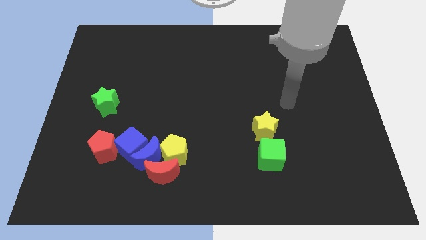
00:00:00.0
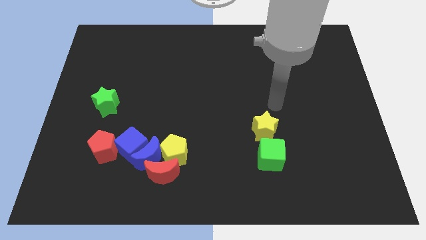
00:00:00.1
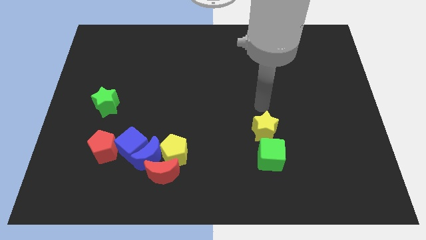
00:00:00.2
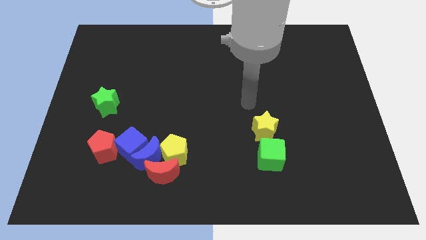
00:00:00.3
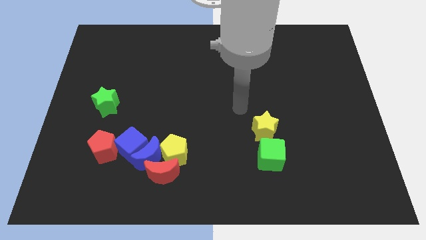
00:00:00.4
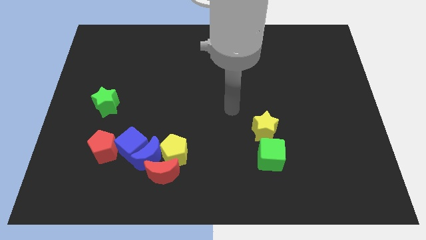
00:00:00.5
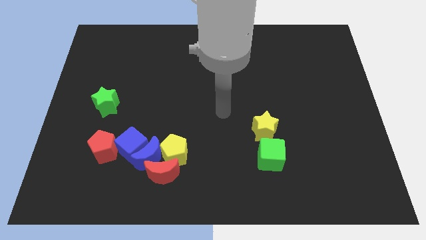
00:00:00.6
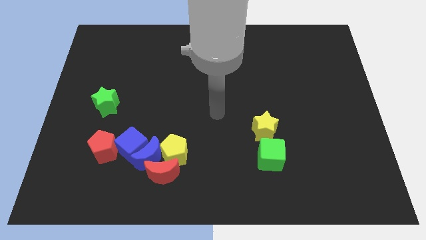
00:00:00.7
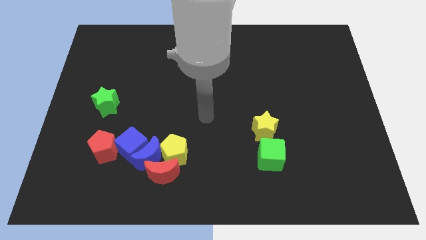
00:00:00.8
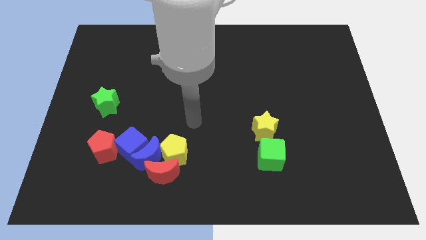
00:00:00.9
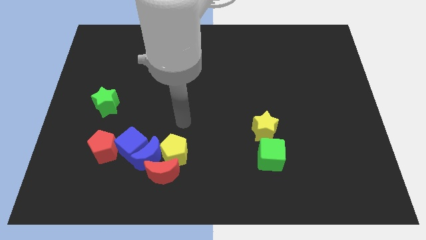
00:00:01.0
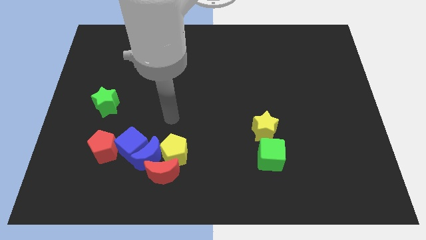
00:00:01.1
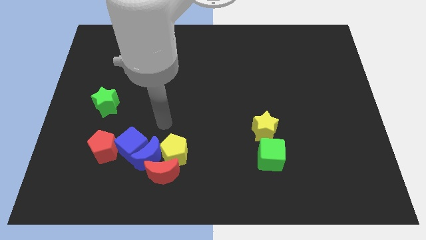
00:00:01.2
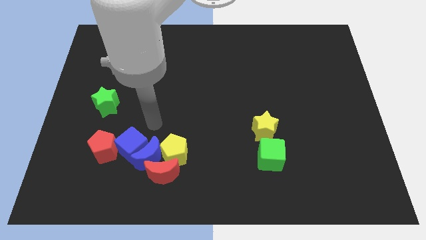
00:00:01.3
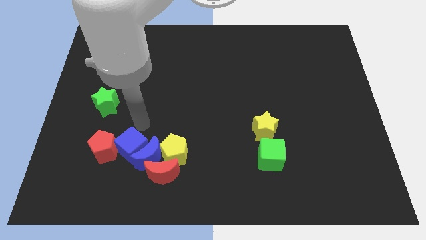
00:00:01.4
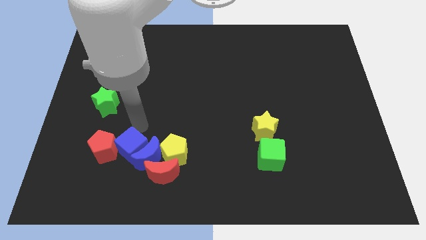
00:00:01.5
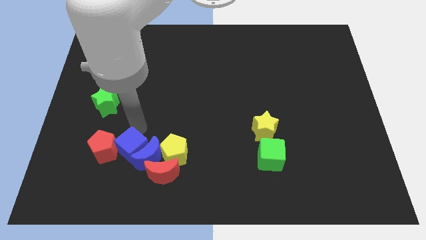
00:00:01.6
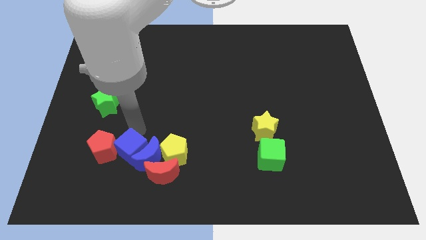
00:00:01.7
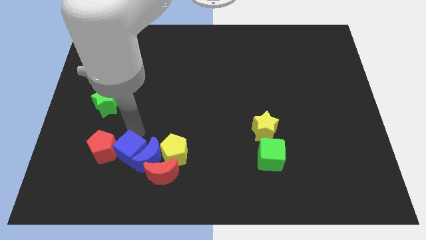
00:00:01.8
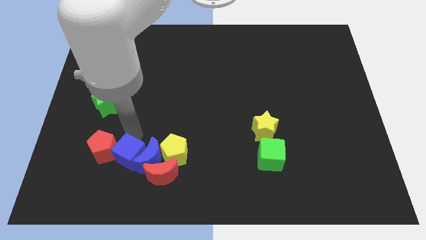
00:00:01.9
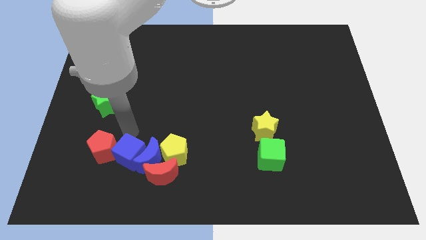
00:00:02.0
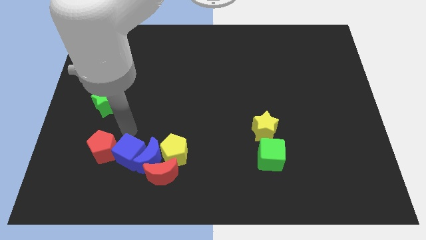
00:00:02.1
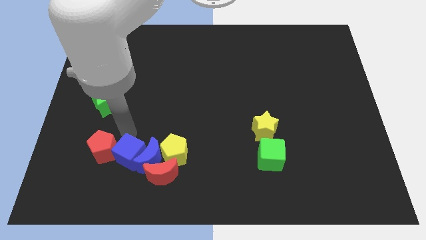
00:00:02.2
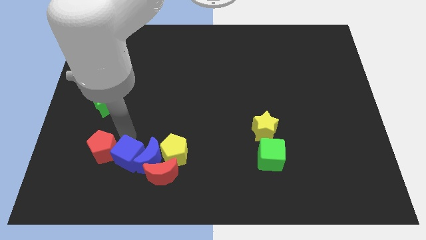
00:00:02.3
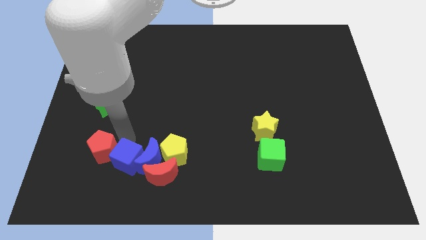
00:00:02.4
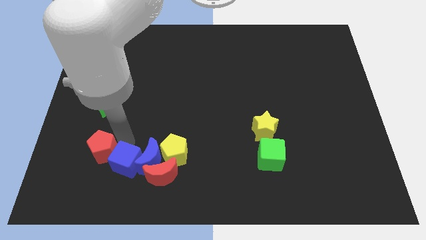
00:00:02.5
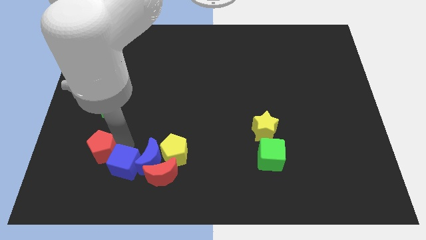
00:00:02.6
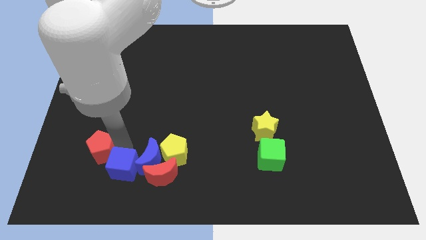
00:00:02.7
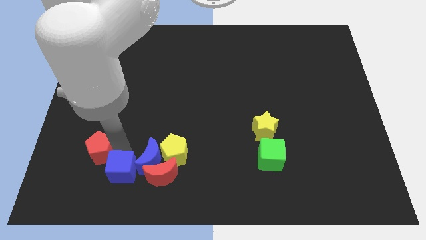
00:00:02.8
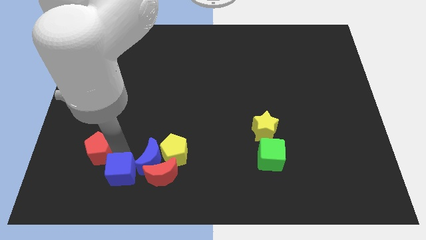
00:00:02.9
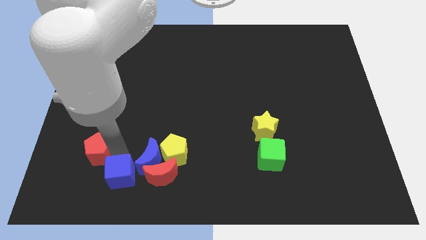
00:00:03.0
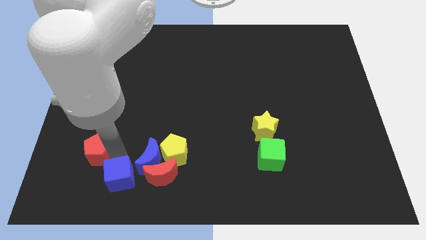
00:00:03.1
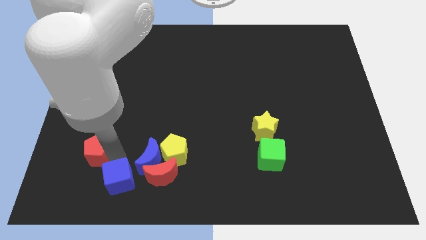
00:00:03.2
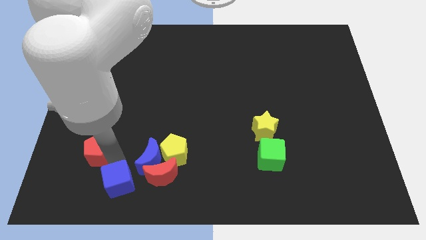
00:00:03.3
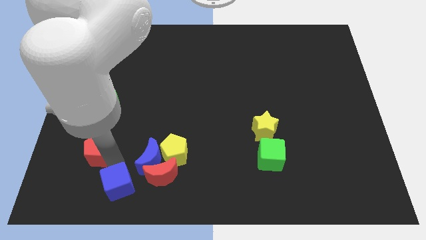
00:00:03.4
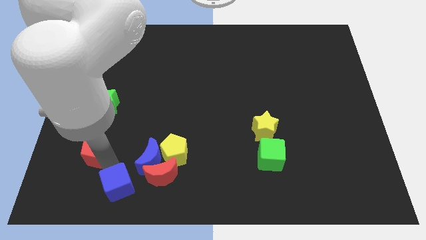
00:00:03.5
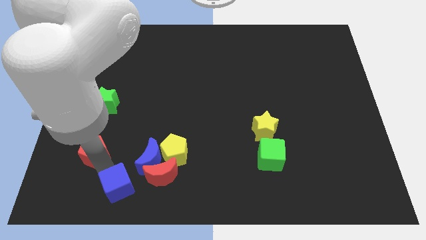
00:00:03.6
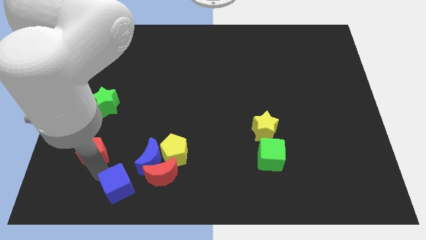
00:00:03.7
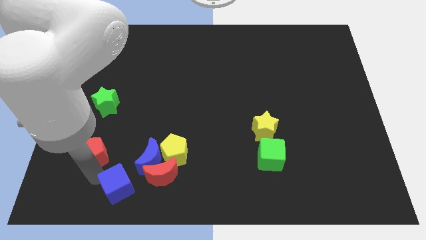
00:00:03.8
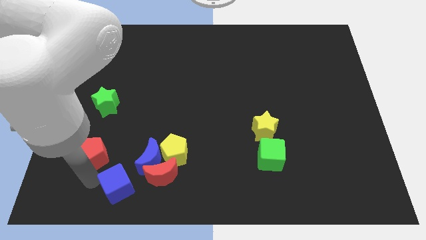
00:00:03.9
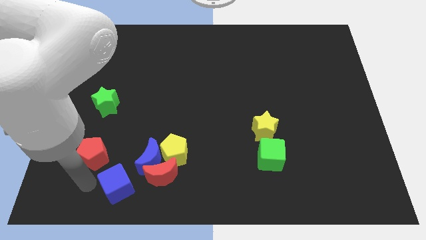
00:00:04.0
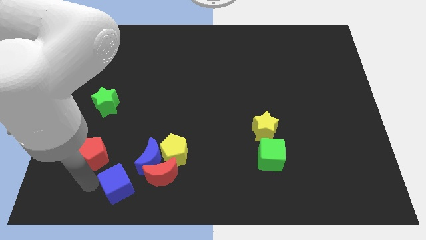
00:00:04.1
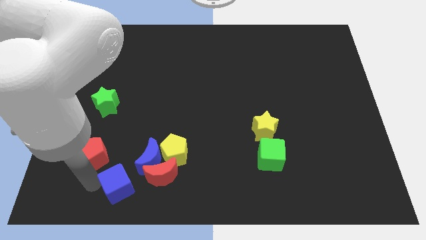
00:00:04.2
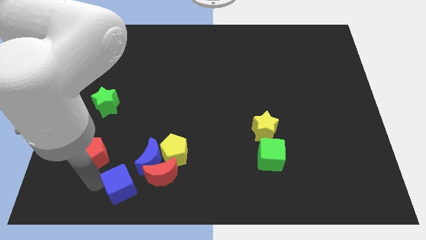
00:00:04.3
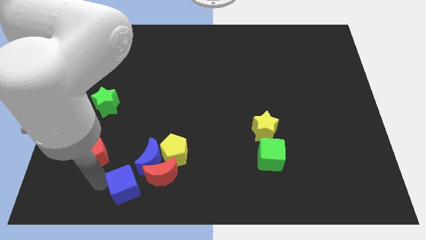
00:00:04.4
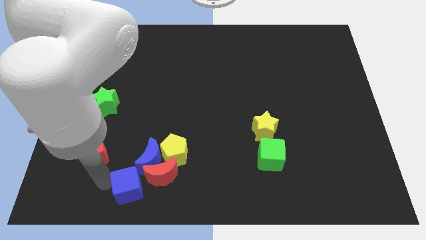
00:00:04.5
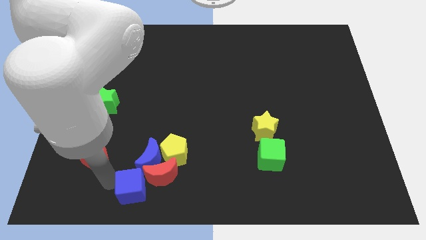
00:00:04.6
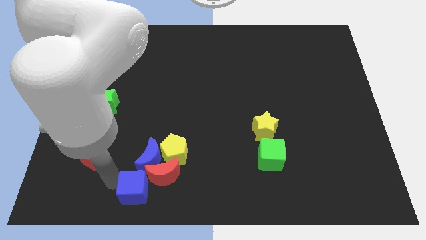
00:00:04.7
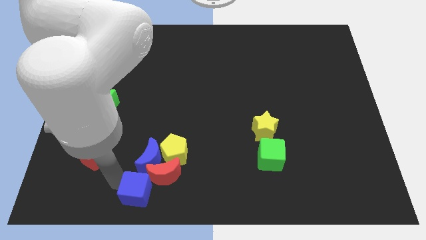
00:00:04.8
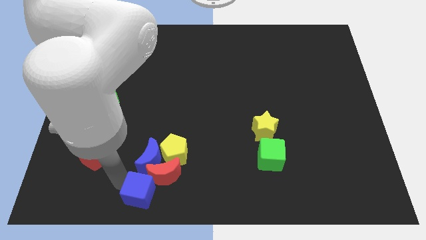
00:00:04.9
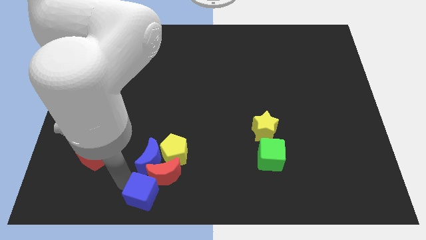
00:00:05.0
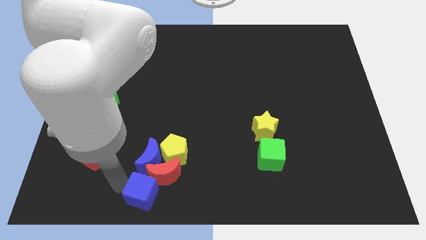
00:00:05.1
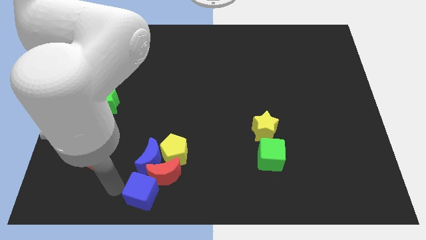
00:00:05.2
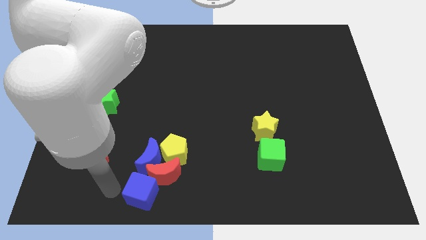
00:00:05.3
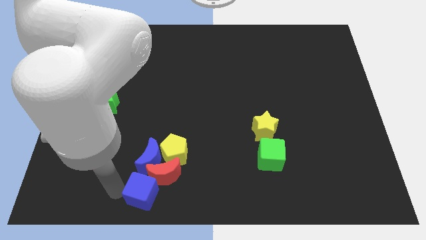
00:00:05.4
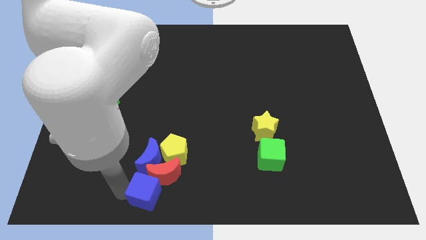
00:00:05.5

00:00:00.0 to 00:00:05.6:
slide the blue cube to the bottom side

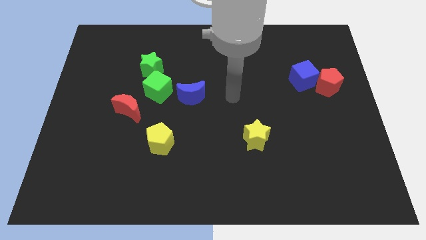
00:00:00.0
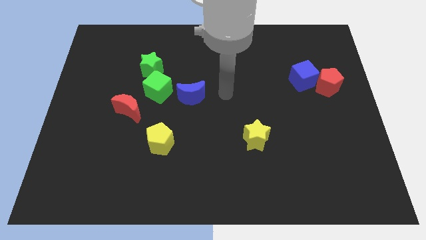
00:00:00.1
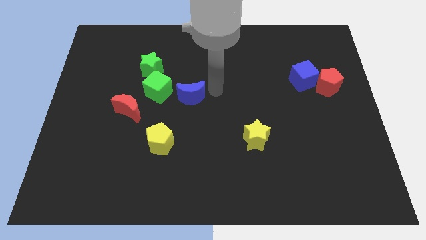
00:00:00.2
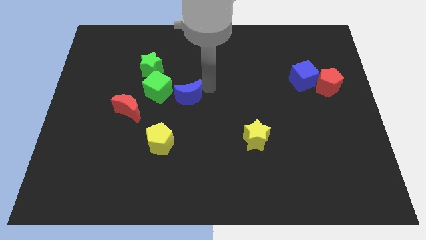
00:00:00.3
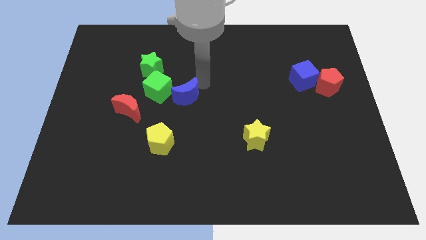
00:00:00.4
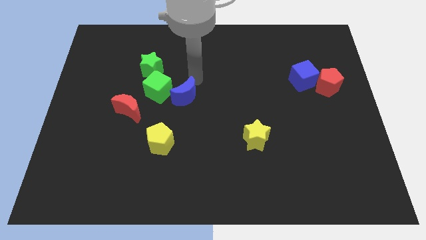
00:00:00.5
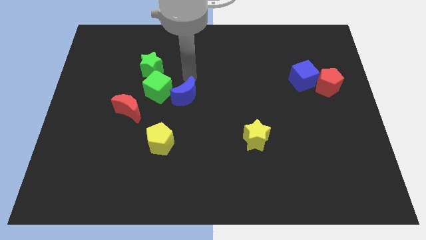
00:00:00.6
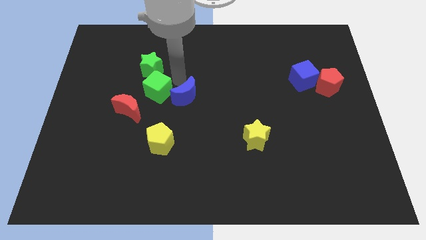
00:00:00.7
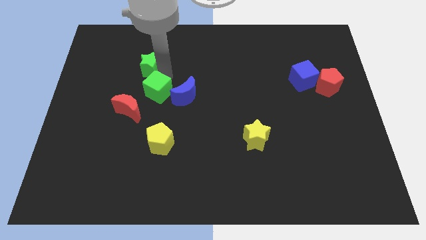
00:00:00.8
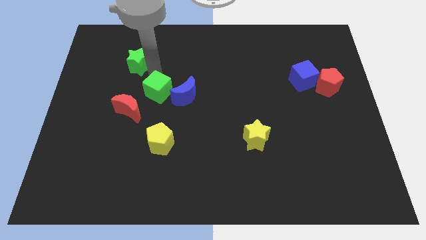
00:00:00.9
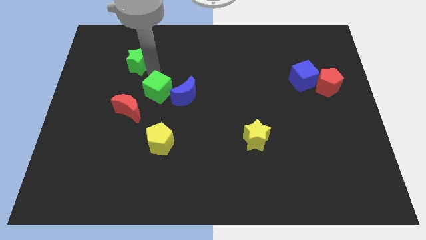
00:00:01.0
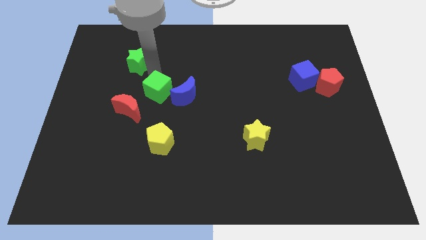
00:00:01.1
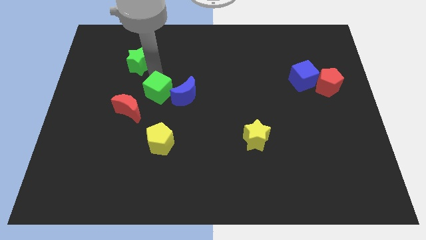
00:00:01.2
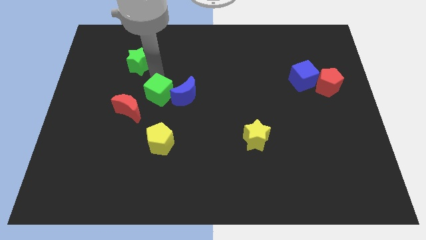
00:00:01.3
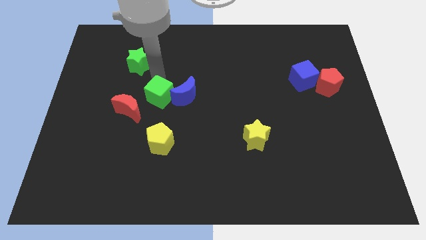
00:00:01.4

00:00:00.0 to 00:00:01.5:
move the green cube to the middle of the board
